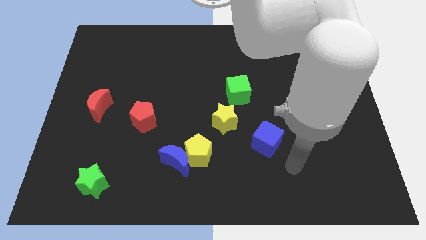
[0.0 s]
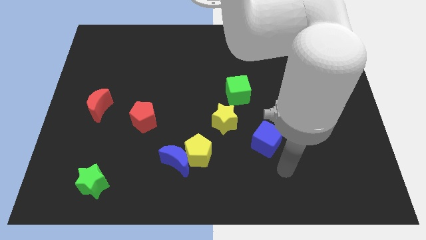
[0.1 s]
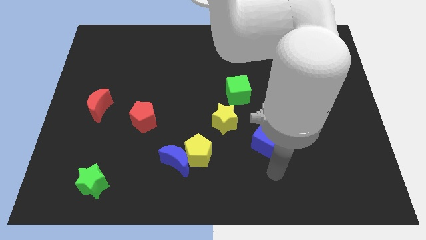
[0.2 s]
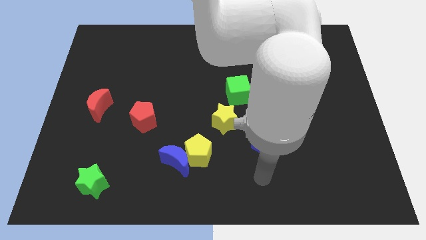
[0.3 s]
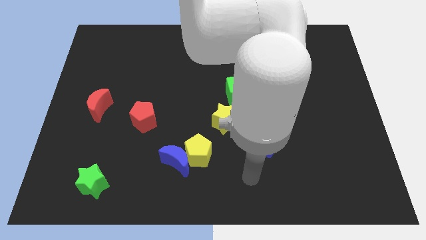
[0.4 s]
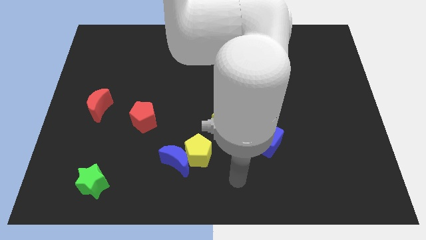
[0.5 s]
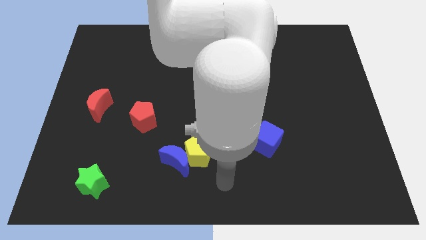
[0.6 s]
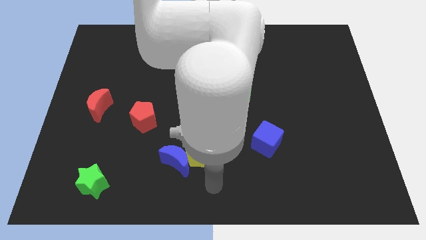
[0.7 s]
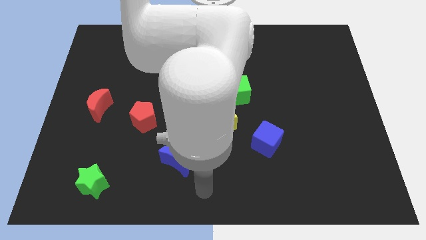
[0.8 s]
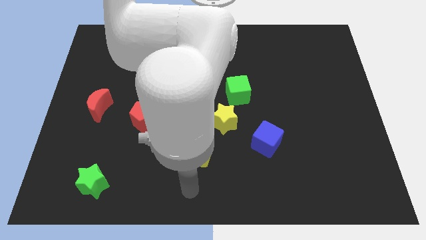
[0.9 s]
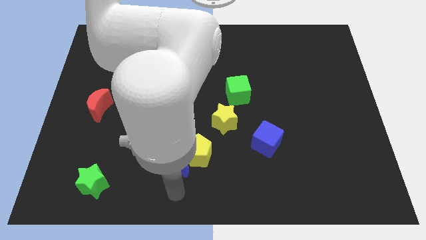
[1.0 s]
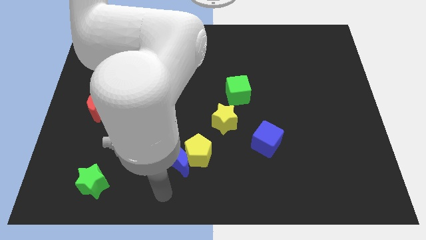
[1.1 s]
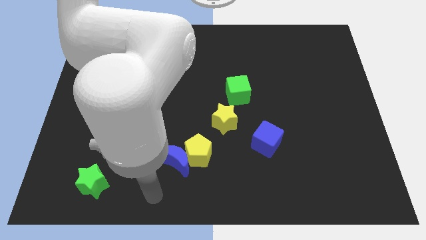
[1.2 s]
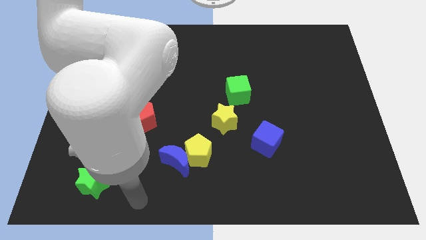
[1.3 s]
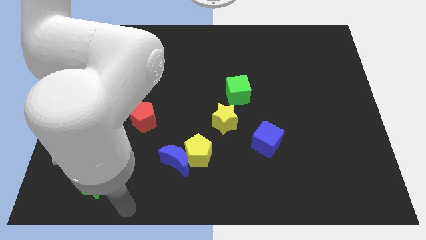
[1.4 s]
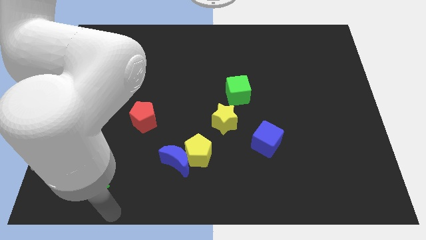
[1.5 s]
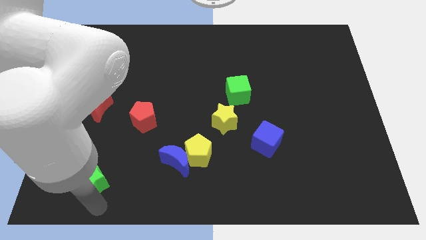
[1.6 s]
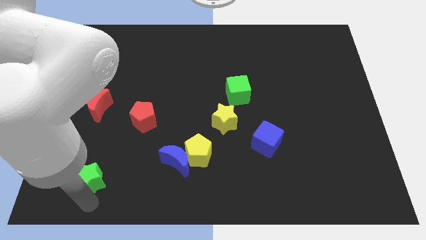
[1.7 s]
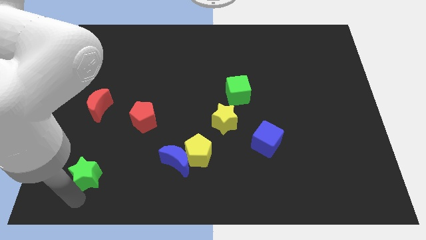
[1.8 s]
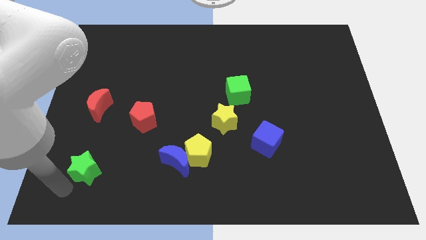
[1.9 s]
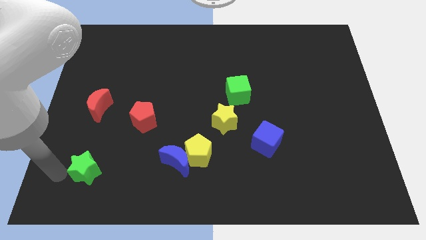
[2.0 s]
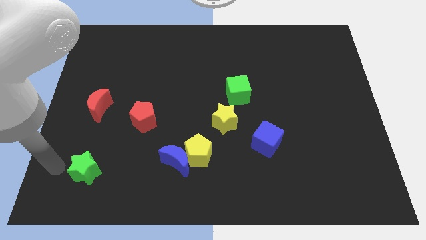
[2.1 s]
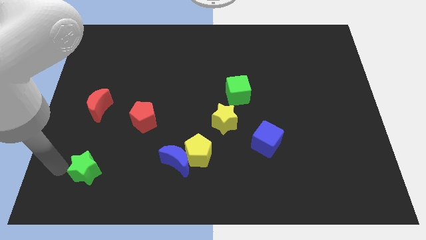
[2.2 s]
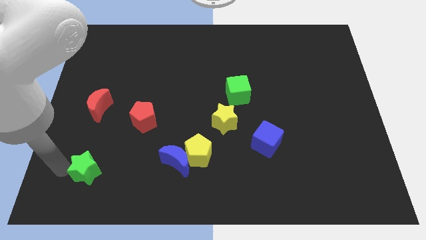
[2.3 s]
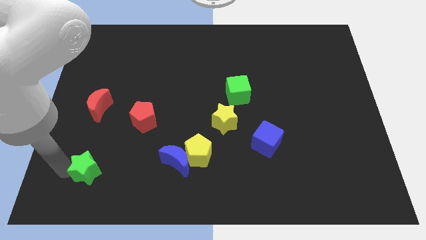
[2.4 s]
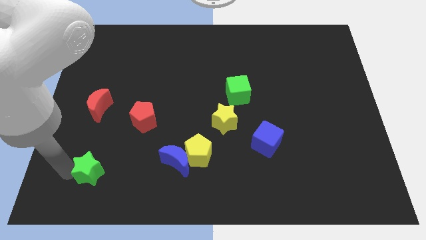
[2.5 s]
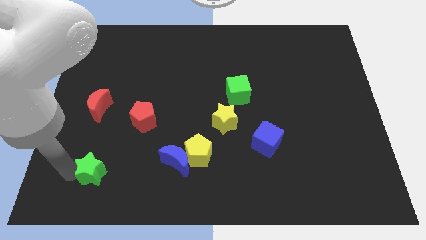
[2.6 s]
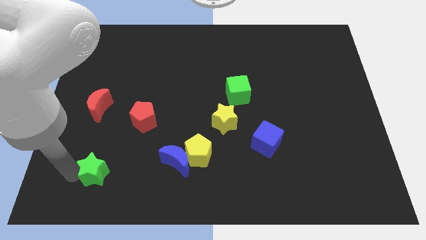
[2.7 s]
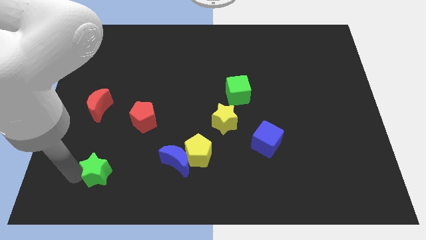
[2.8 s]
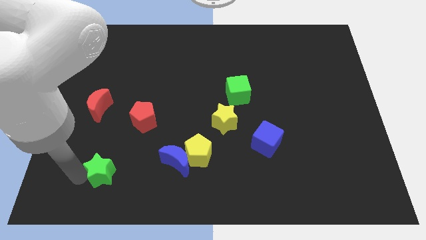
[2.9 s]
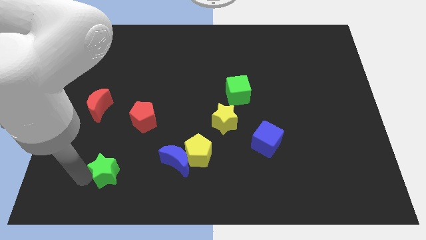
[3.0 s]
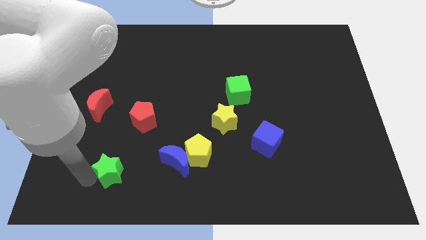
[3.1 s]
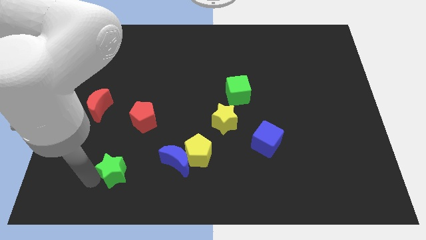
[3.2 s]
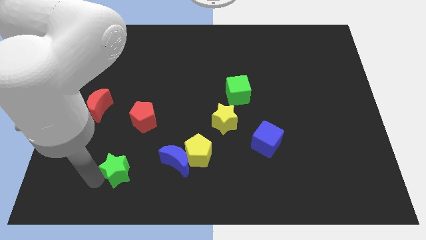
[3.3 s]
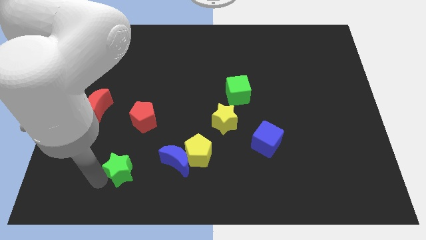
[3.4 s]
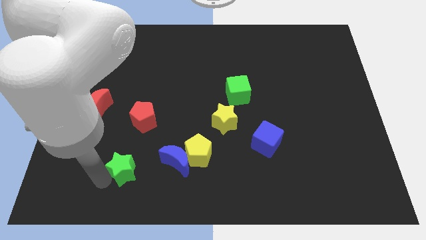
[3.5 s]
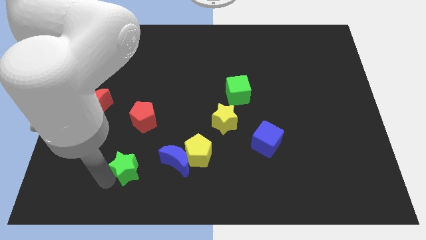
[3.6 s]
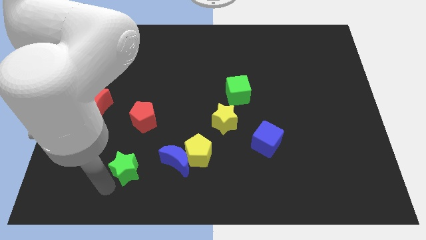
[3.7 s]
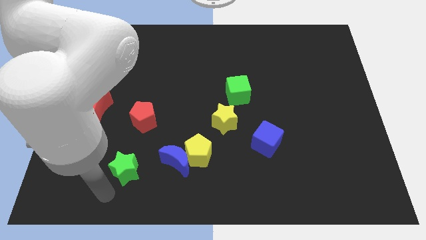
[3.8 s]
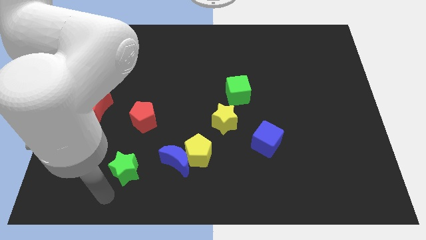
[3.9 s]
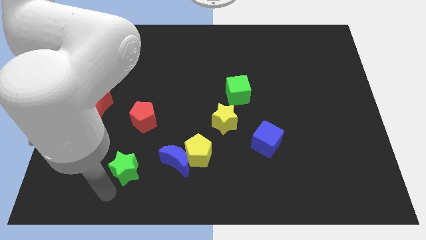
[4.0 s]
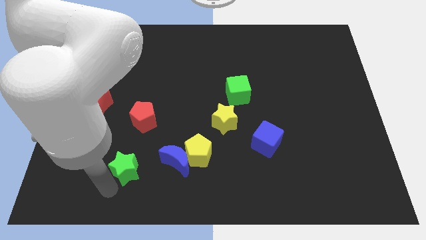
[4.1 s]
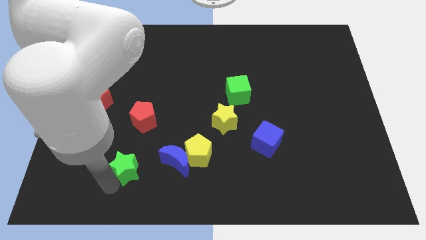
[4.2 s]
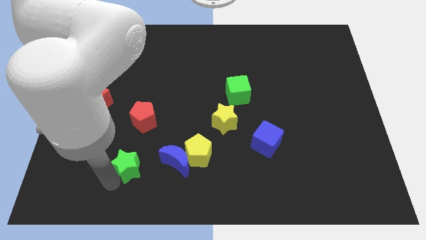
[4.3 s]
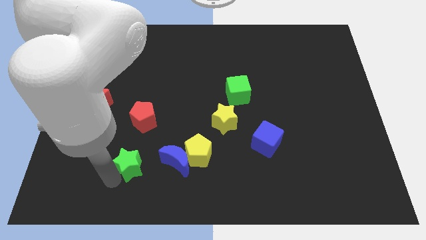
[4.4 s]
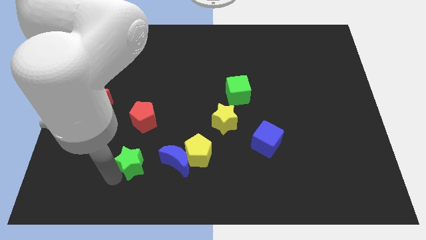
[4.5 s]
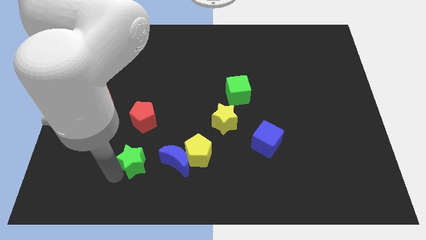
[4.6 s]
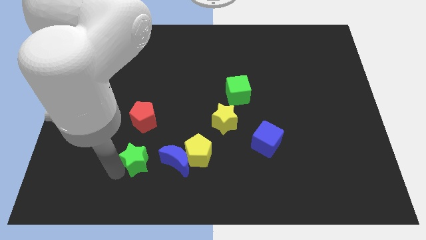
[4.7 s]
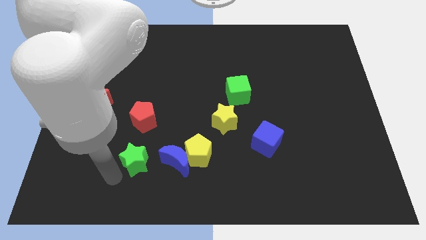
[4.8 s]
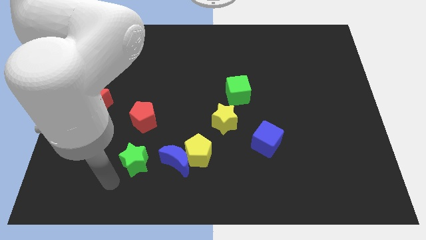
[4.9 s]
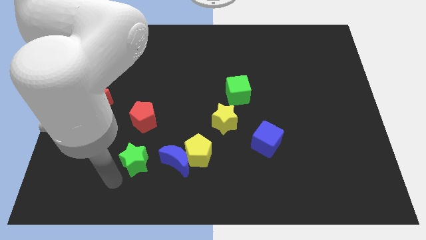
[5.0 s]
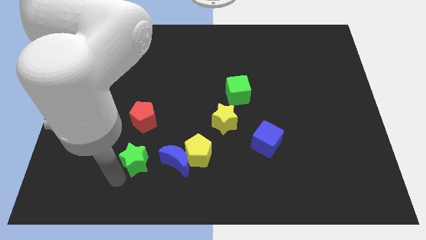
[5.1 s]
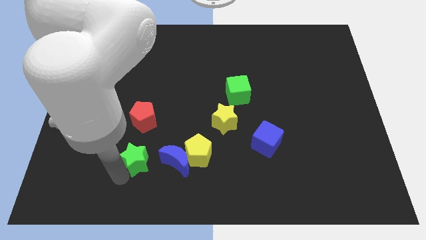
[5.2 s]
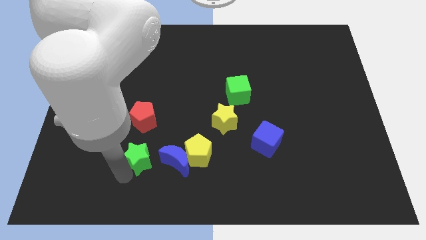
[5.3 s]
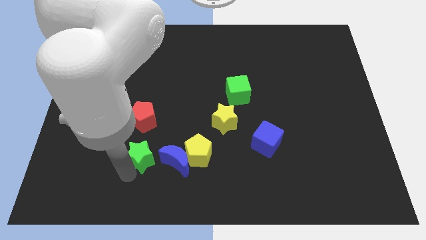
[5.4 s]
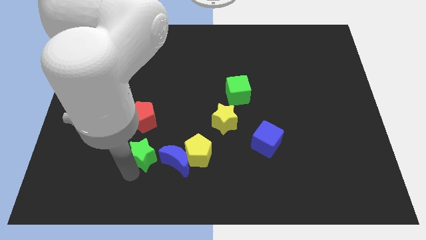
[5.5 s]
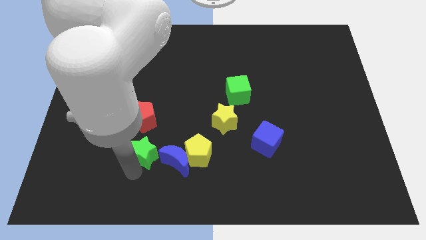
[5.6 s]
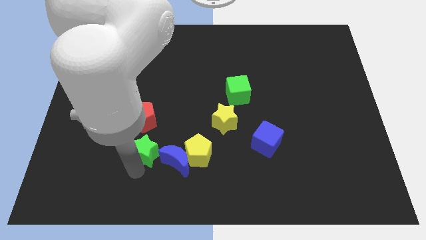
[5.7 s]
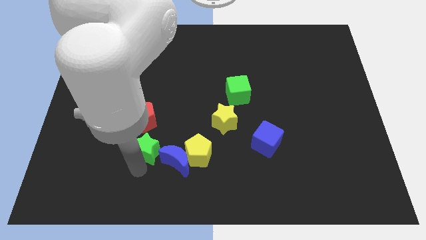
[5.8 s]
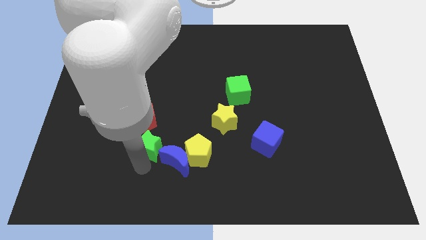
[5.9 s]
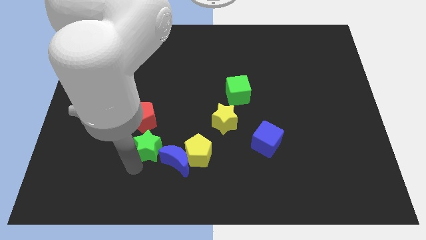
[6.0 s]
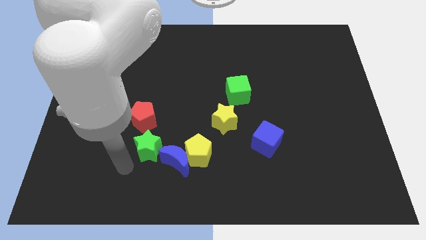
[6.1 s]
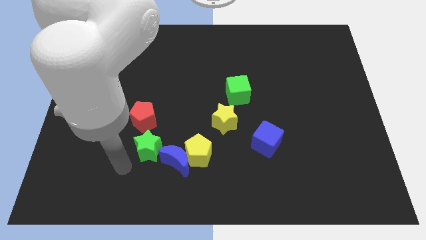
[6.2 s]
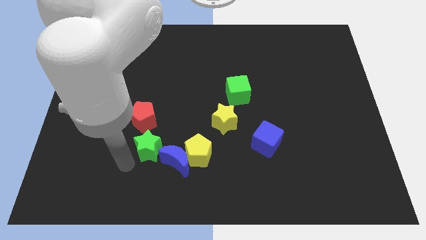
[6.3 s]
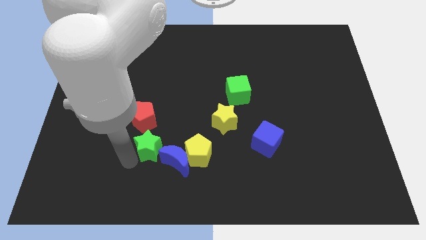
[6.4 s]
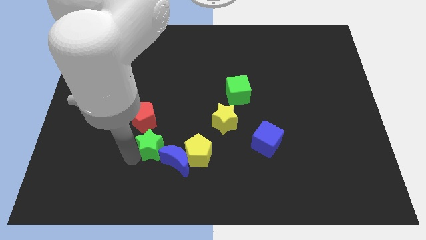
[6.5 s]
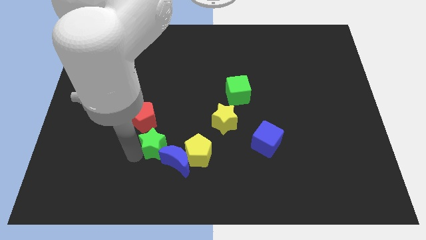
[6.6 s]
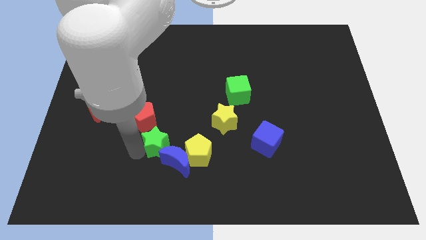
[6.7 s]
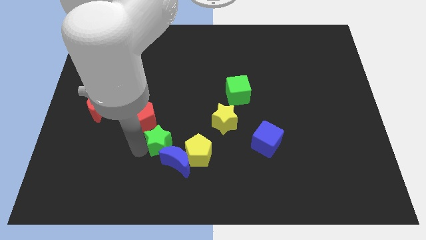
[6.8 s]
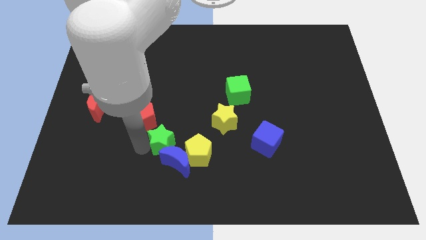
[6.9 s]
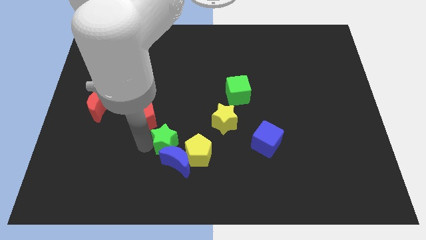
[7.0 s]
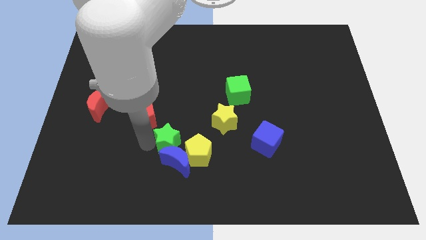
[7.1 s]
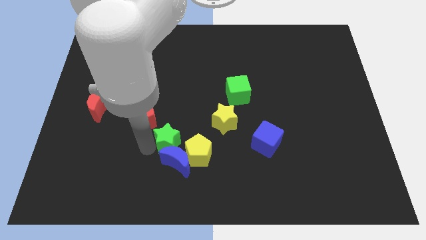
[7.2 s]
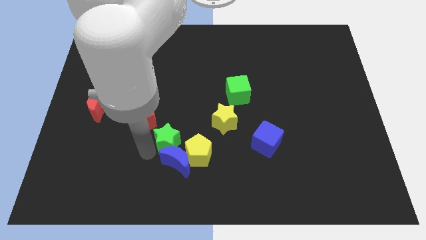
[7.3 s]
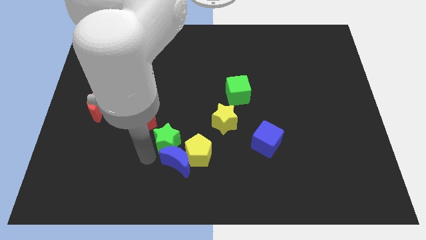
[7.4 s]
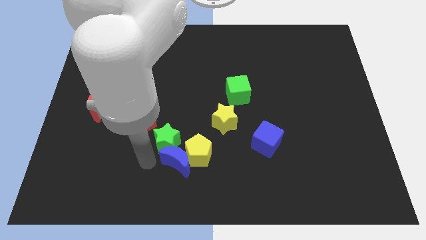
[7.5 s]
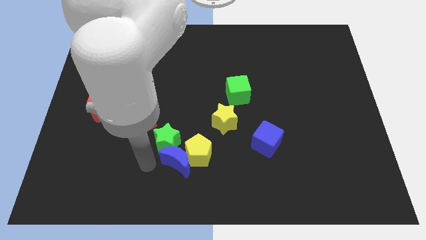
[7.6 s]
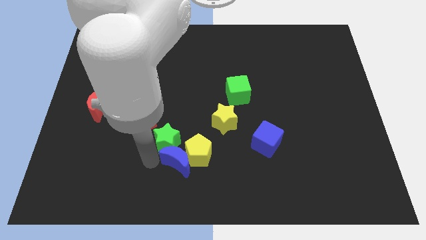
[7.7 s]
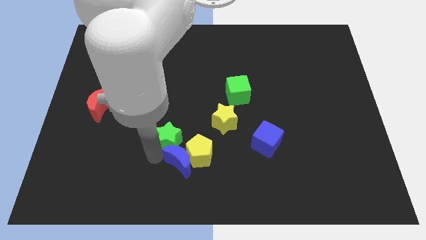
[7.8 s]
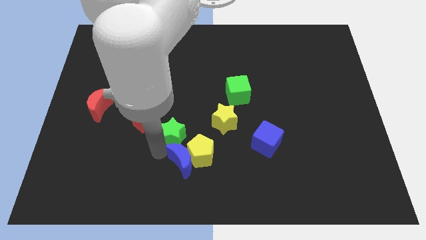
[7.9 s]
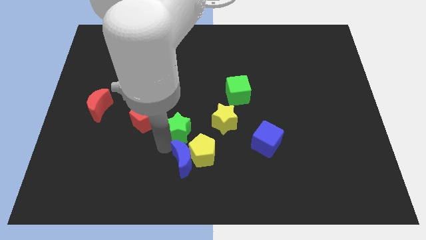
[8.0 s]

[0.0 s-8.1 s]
push the green star to the center

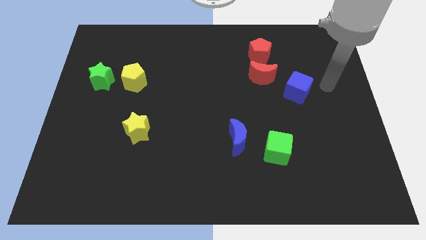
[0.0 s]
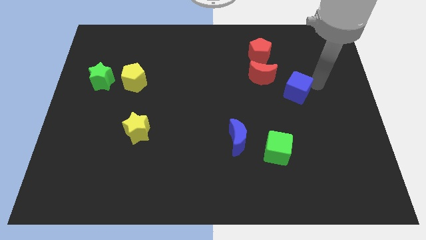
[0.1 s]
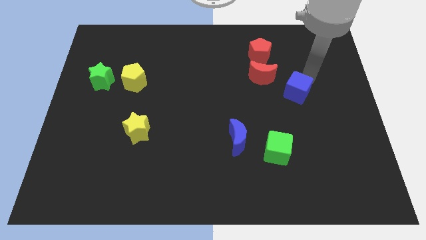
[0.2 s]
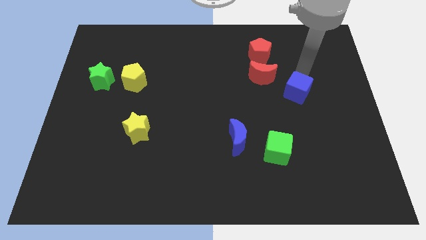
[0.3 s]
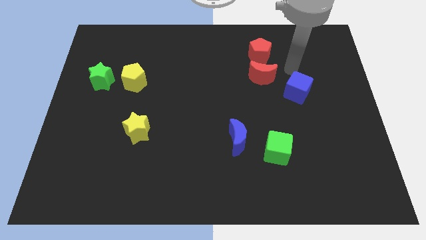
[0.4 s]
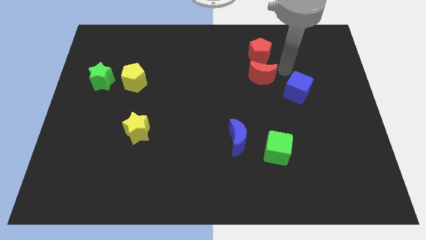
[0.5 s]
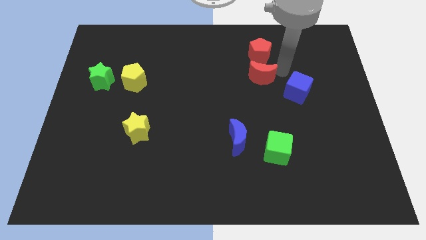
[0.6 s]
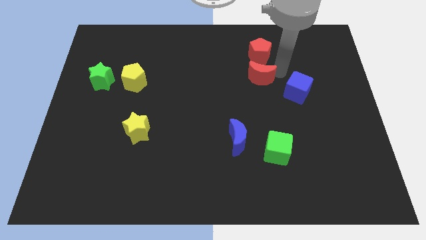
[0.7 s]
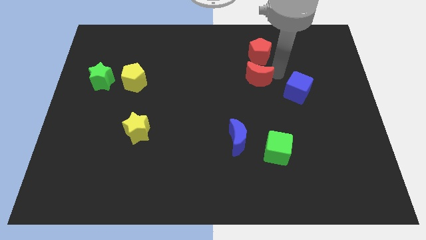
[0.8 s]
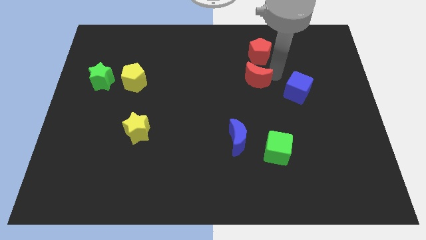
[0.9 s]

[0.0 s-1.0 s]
put the red moon to the center
